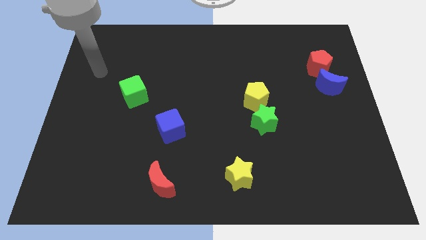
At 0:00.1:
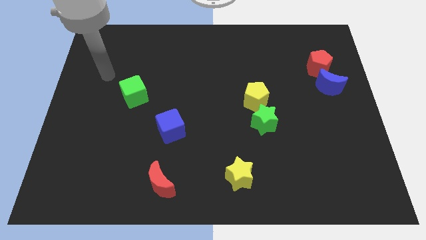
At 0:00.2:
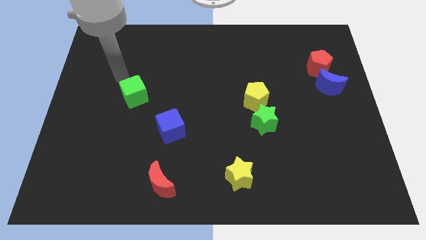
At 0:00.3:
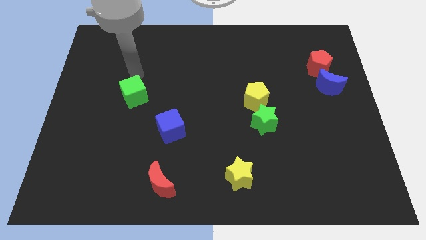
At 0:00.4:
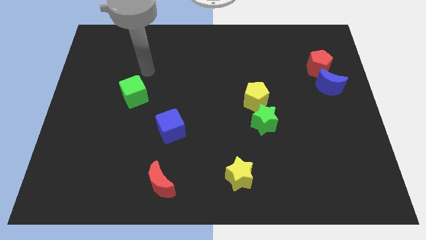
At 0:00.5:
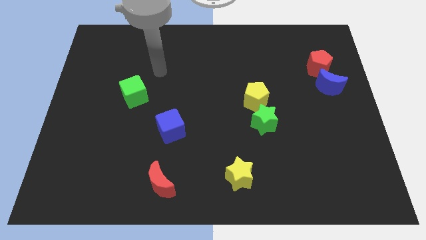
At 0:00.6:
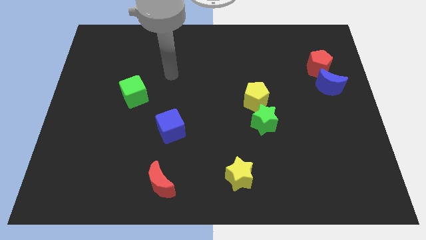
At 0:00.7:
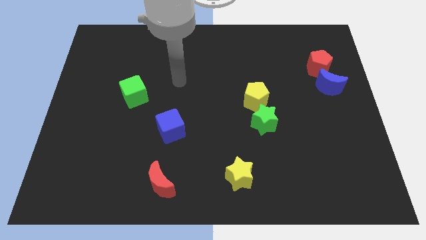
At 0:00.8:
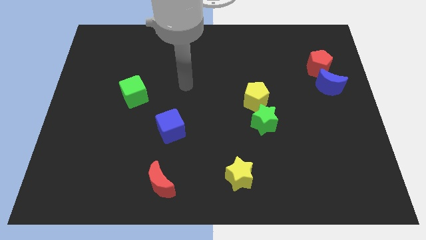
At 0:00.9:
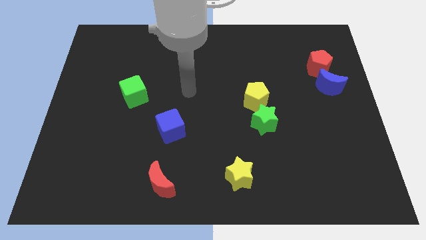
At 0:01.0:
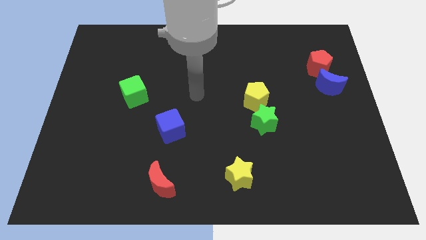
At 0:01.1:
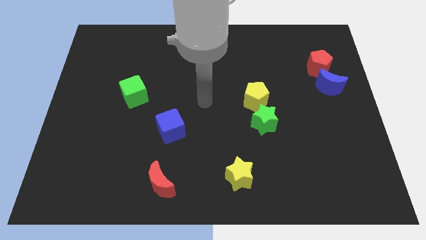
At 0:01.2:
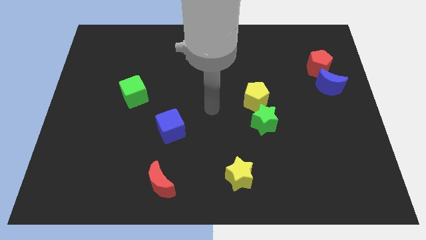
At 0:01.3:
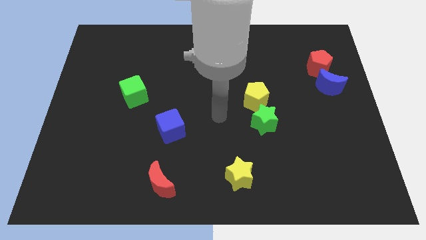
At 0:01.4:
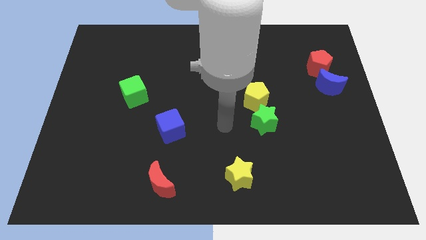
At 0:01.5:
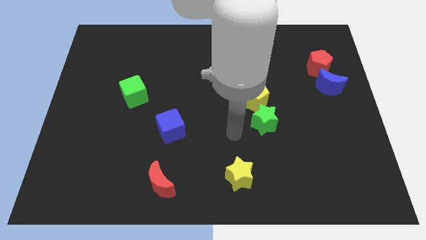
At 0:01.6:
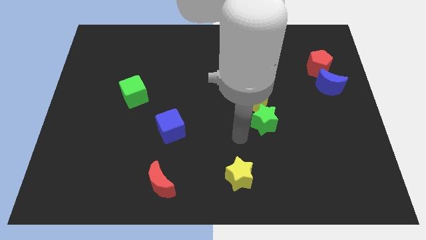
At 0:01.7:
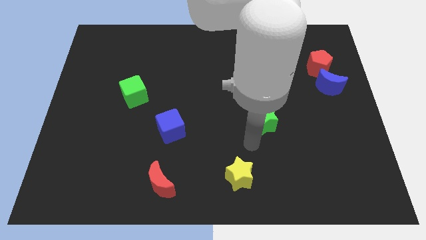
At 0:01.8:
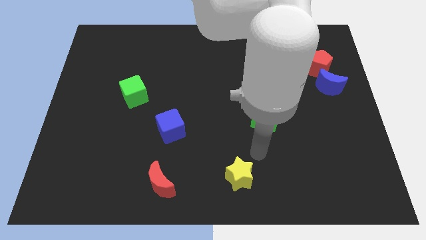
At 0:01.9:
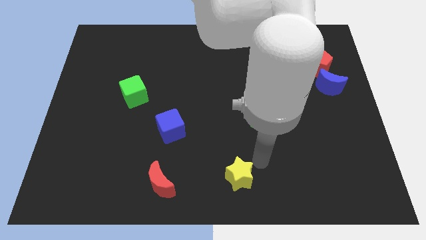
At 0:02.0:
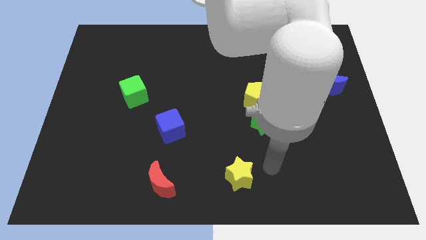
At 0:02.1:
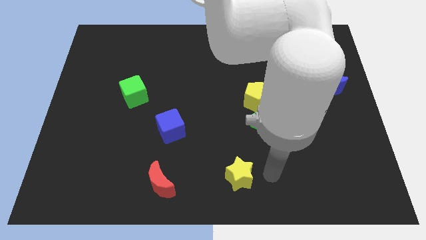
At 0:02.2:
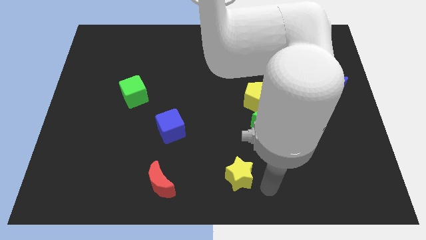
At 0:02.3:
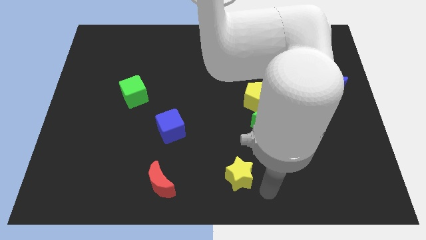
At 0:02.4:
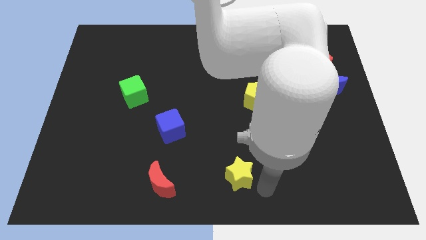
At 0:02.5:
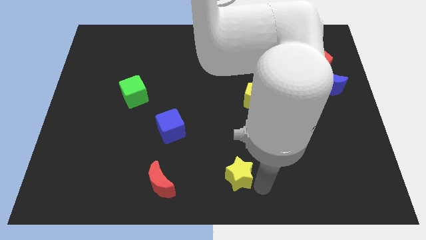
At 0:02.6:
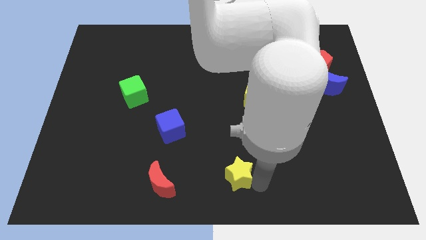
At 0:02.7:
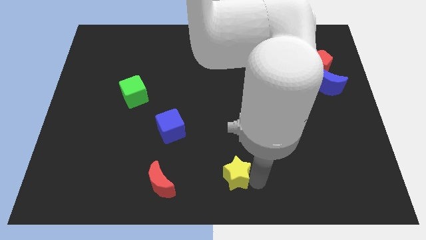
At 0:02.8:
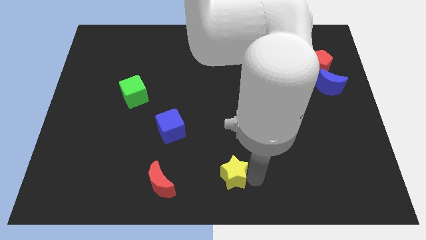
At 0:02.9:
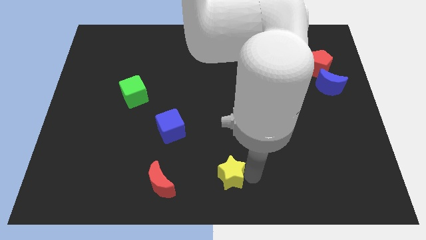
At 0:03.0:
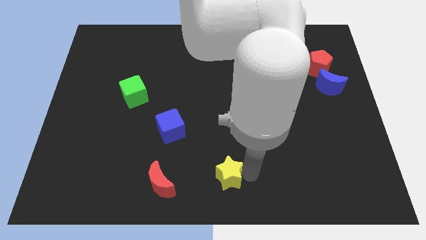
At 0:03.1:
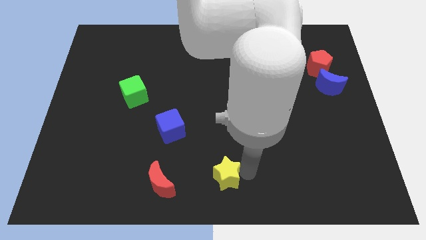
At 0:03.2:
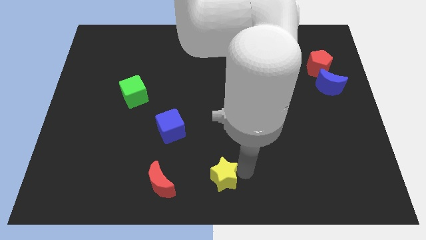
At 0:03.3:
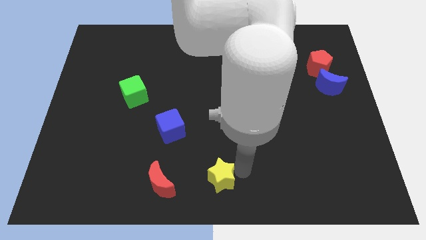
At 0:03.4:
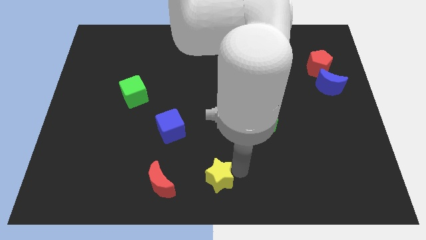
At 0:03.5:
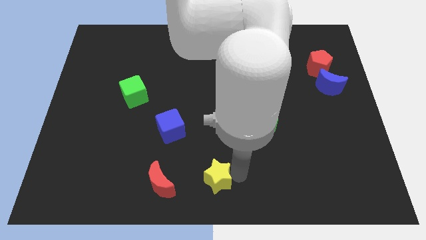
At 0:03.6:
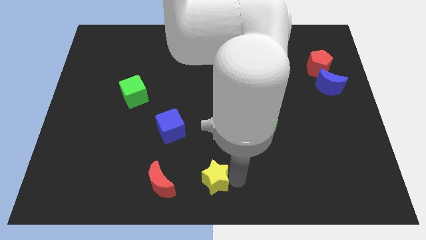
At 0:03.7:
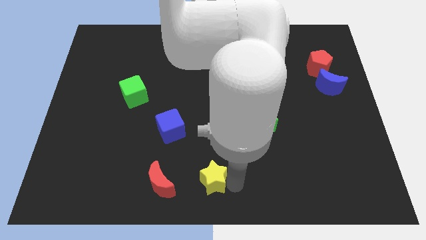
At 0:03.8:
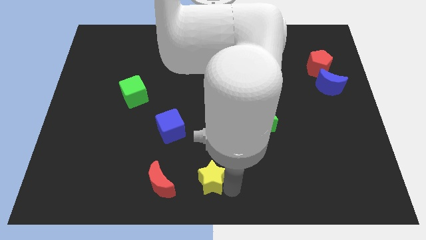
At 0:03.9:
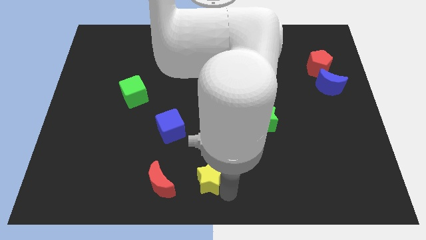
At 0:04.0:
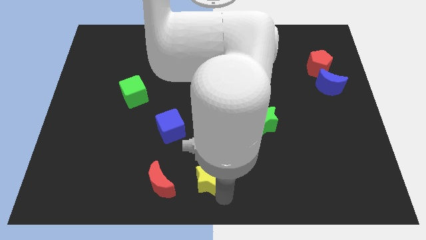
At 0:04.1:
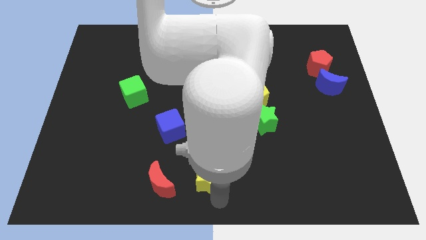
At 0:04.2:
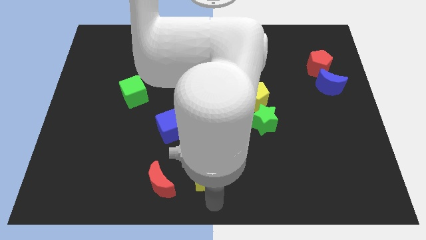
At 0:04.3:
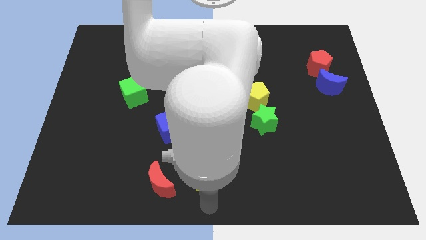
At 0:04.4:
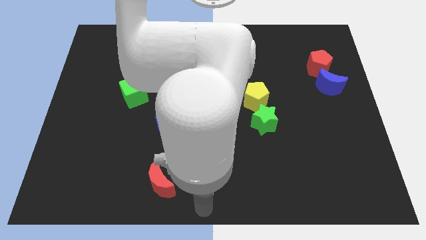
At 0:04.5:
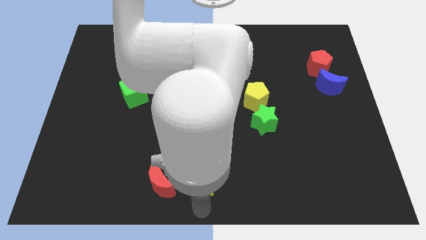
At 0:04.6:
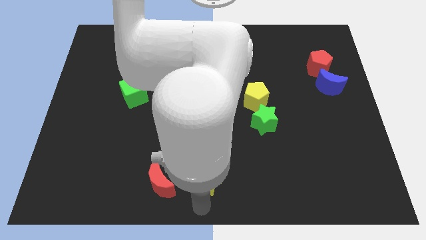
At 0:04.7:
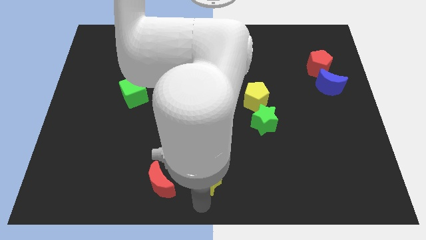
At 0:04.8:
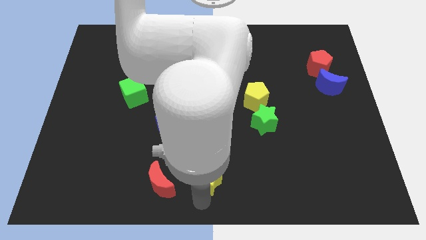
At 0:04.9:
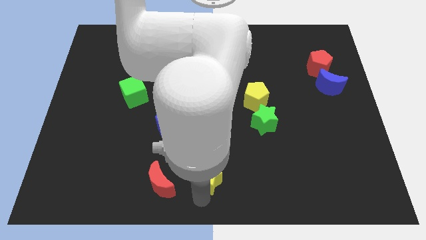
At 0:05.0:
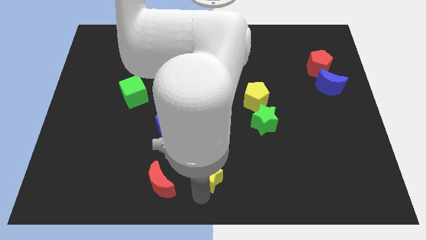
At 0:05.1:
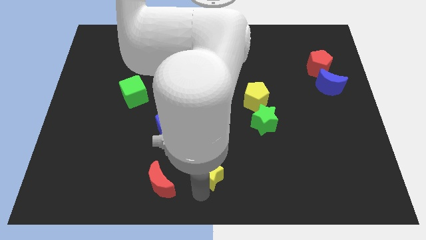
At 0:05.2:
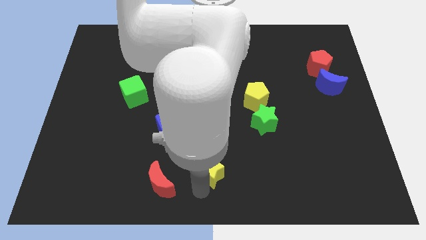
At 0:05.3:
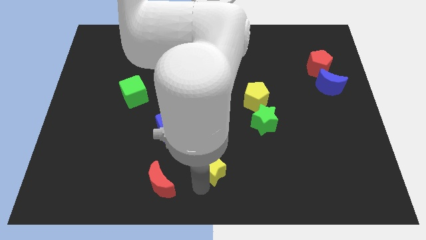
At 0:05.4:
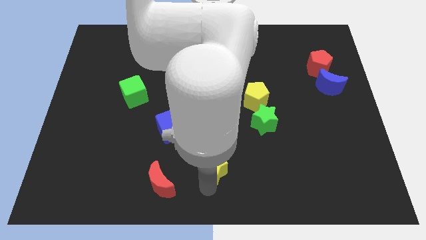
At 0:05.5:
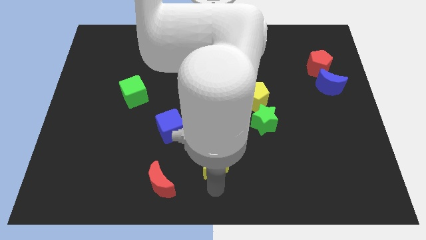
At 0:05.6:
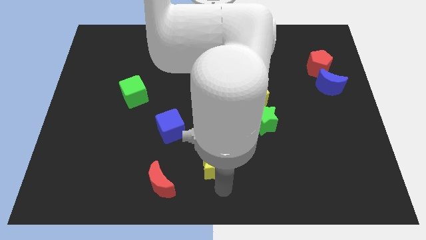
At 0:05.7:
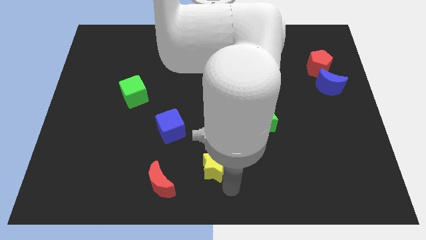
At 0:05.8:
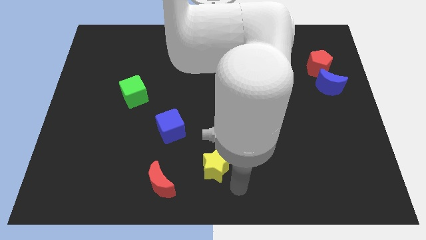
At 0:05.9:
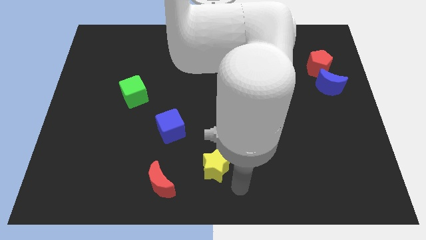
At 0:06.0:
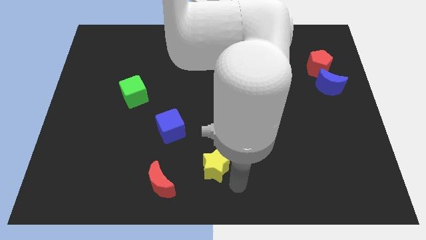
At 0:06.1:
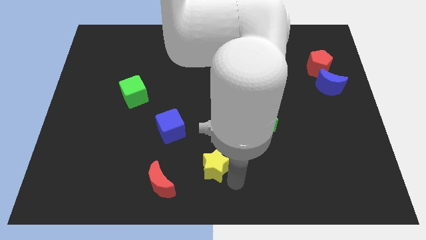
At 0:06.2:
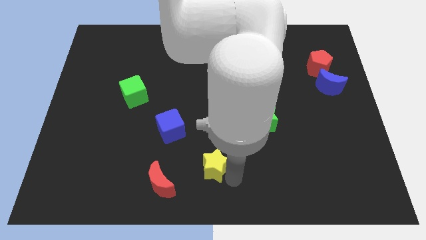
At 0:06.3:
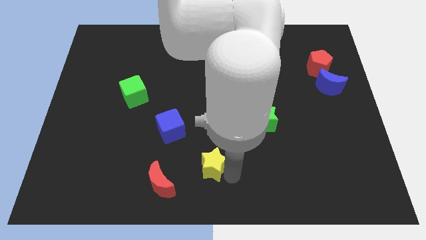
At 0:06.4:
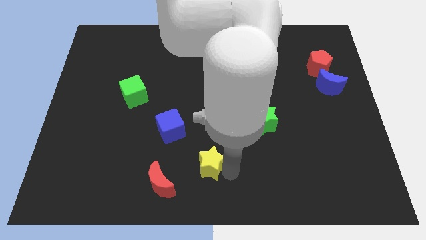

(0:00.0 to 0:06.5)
push the yellow star to the bottom right side of the blue cube
